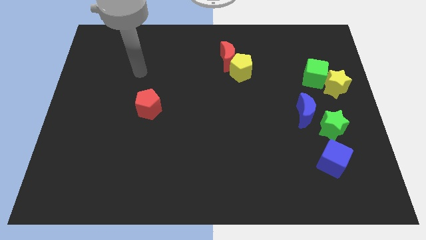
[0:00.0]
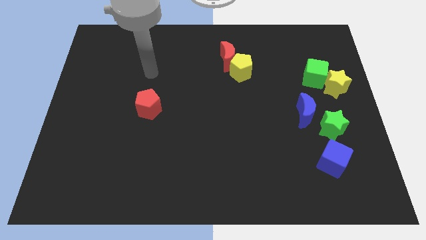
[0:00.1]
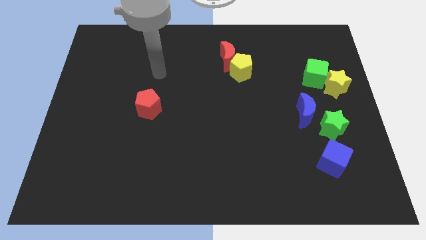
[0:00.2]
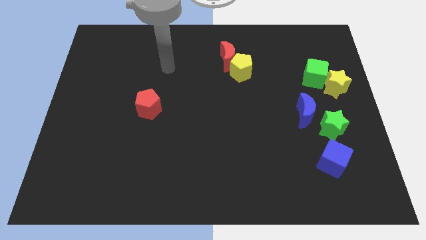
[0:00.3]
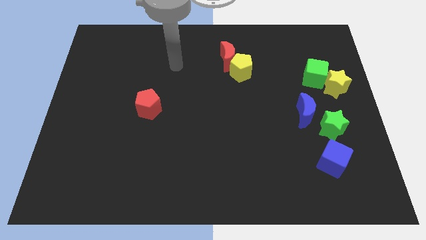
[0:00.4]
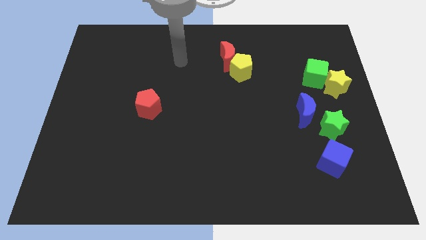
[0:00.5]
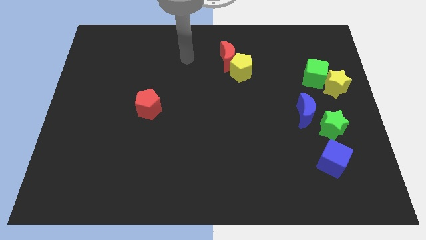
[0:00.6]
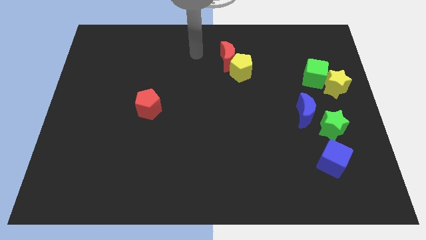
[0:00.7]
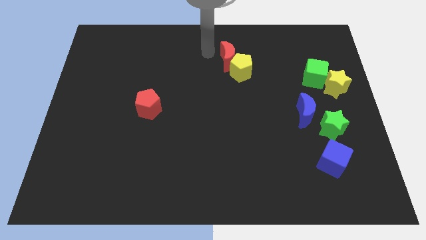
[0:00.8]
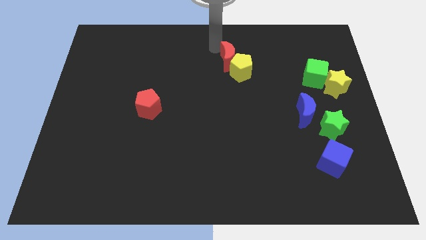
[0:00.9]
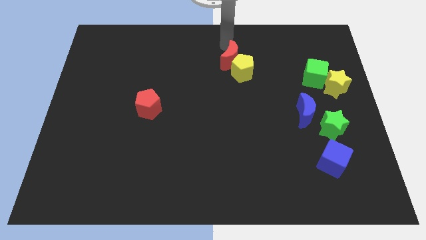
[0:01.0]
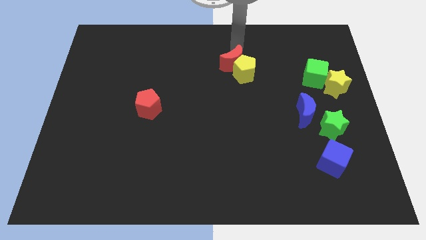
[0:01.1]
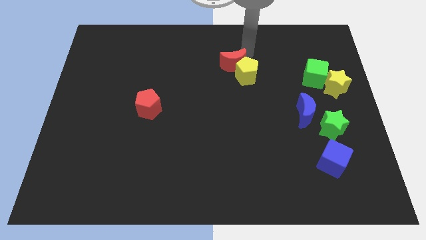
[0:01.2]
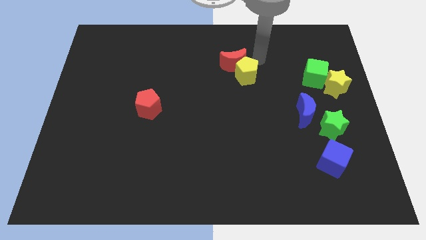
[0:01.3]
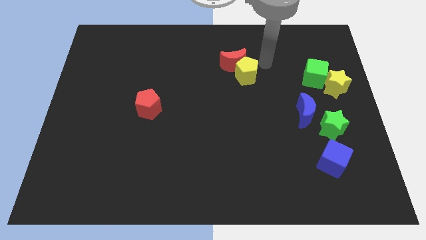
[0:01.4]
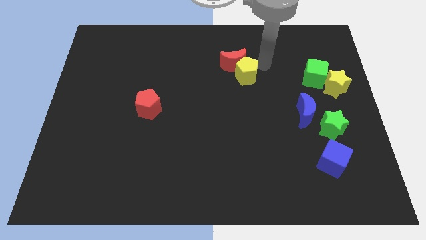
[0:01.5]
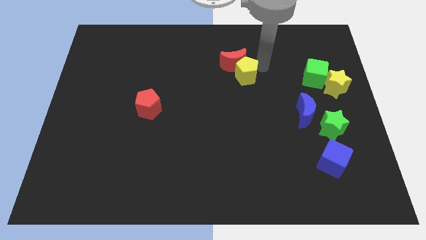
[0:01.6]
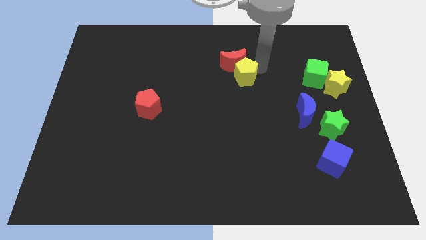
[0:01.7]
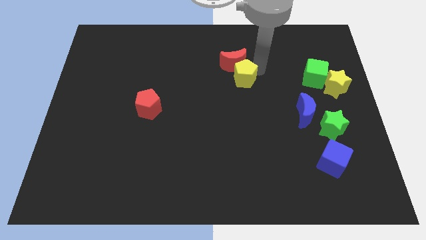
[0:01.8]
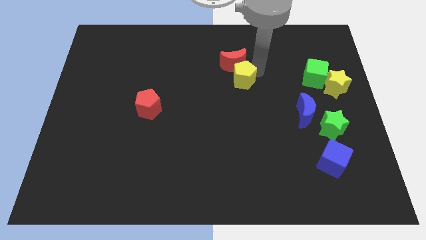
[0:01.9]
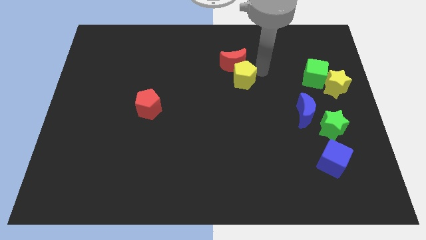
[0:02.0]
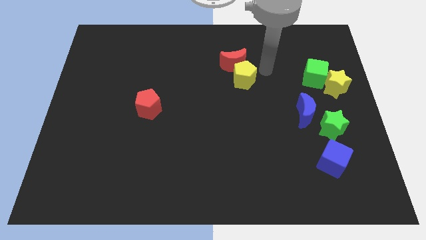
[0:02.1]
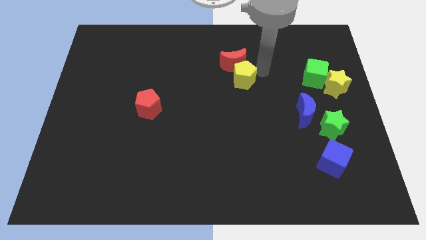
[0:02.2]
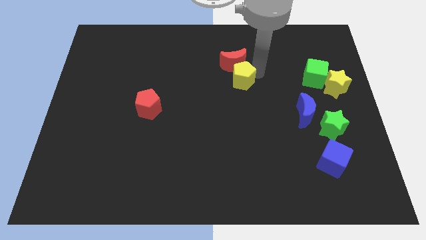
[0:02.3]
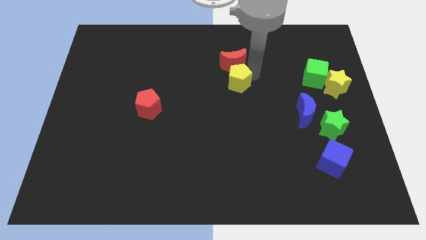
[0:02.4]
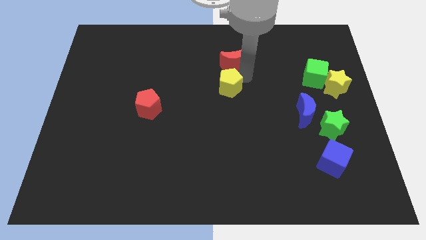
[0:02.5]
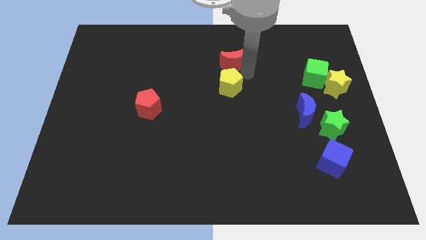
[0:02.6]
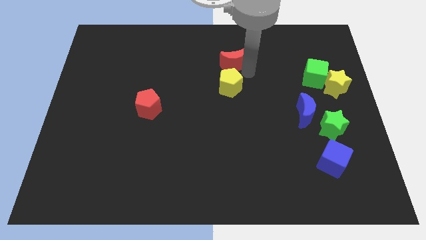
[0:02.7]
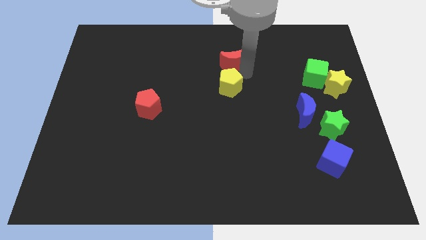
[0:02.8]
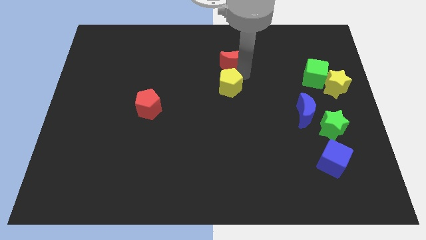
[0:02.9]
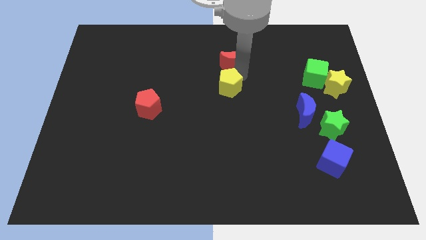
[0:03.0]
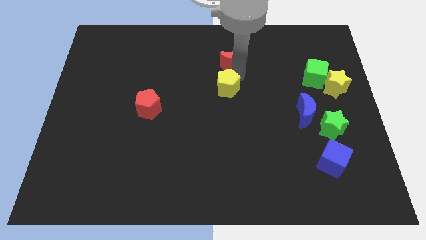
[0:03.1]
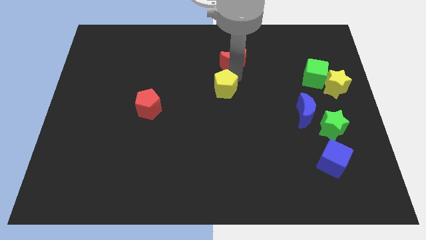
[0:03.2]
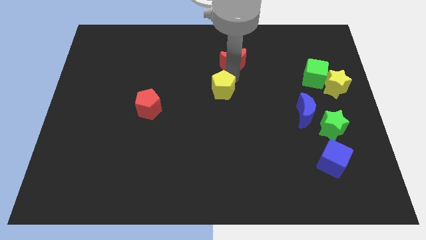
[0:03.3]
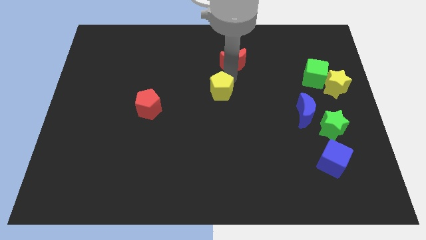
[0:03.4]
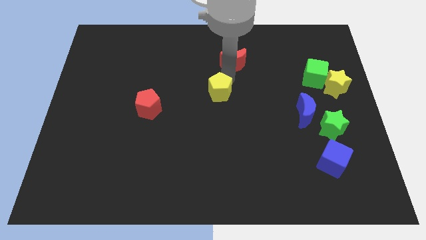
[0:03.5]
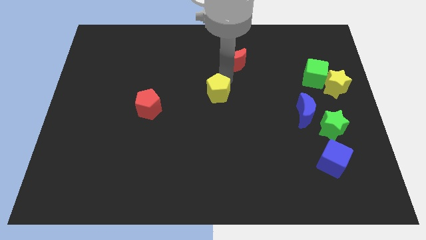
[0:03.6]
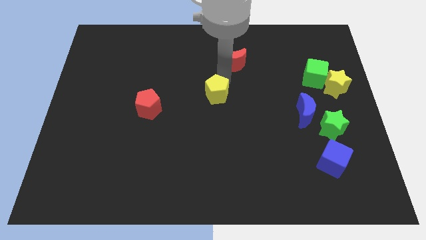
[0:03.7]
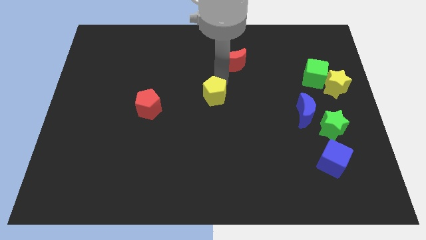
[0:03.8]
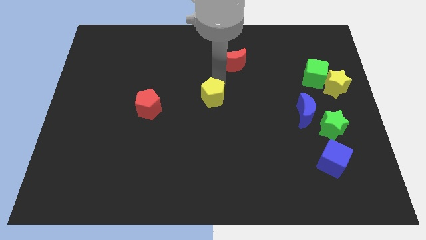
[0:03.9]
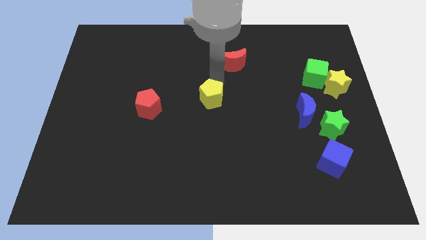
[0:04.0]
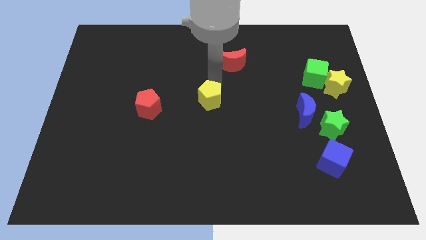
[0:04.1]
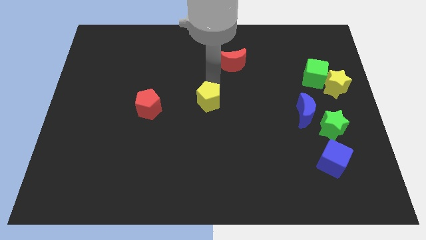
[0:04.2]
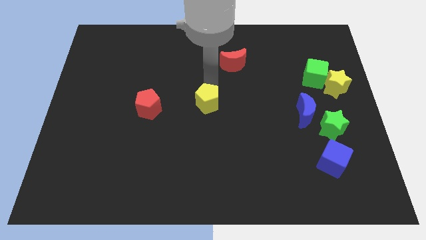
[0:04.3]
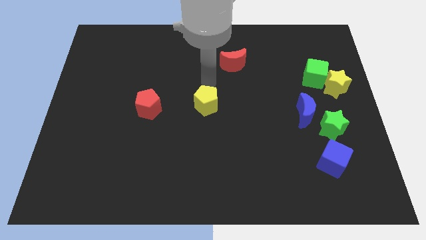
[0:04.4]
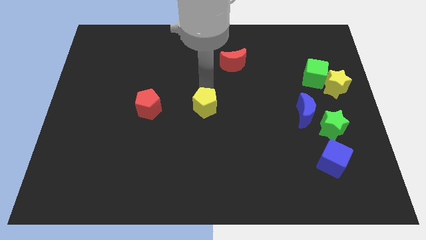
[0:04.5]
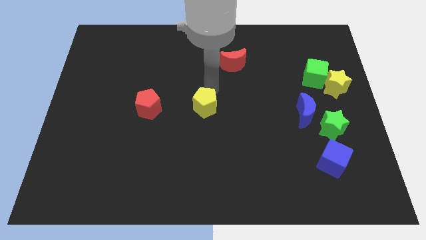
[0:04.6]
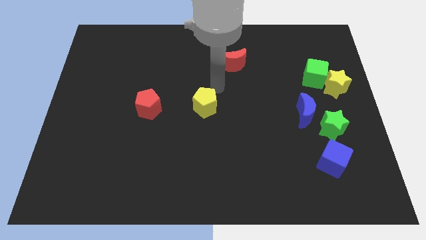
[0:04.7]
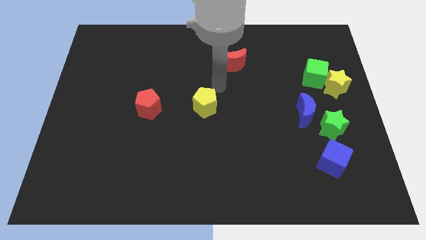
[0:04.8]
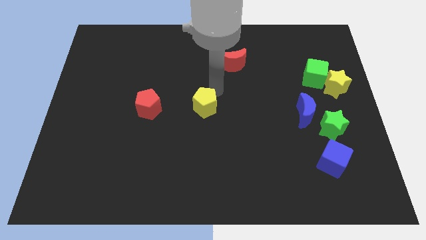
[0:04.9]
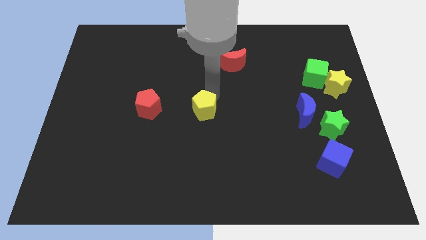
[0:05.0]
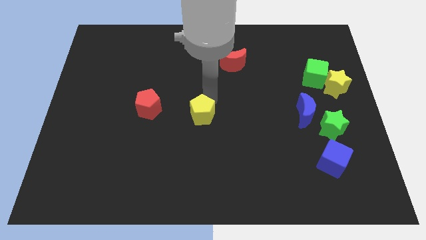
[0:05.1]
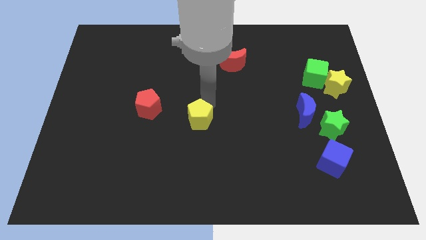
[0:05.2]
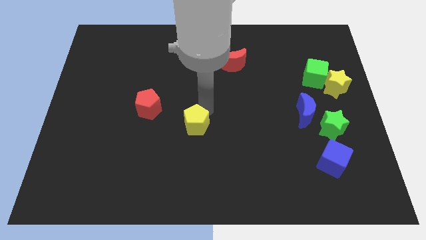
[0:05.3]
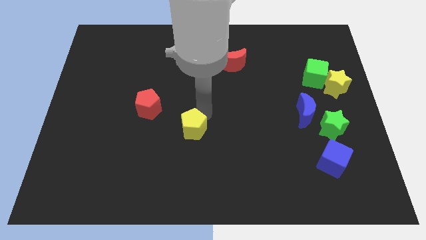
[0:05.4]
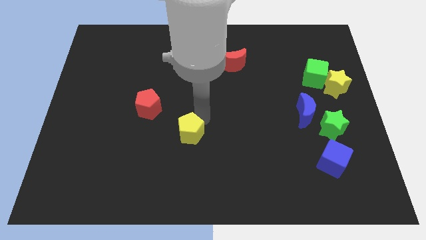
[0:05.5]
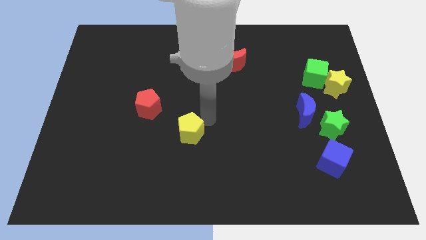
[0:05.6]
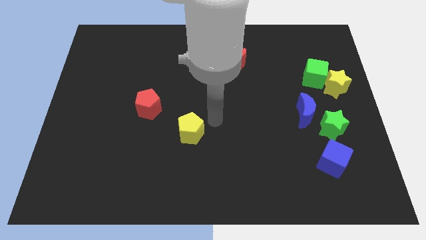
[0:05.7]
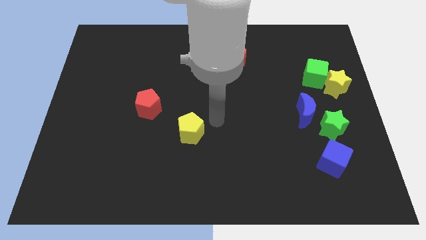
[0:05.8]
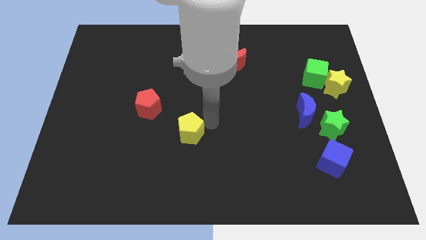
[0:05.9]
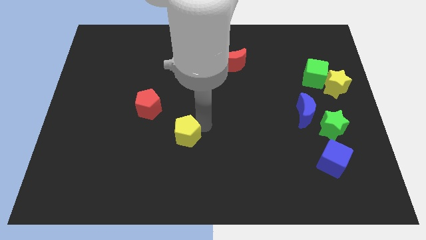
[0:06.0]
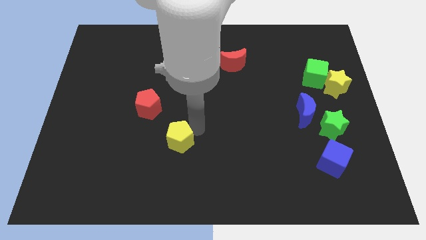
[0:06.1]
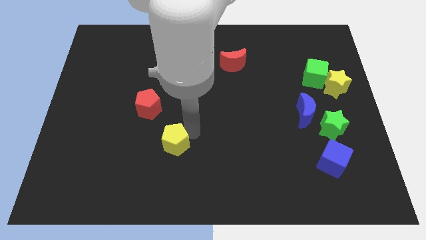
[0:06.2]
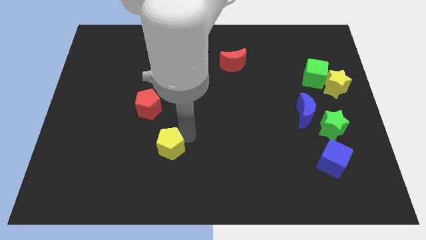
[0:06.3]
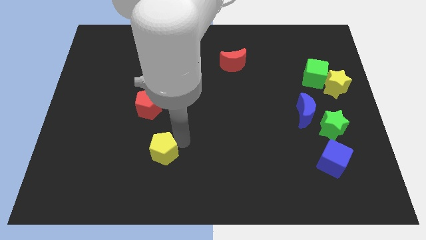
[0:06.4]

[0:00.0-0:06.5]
move the yellow pentagon to the bottom side of the red pentagon
